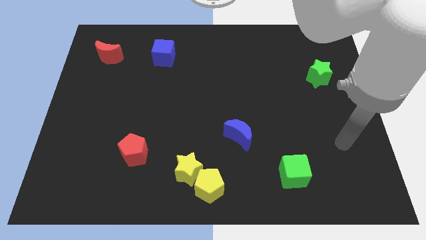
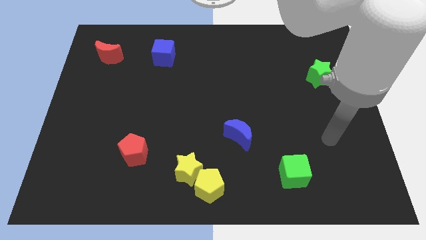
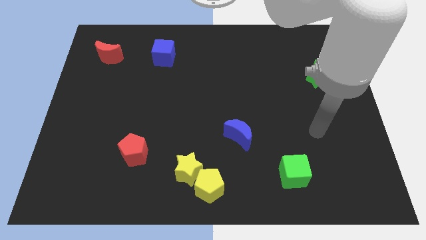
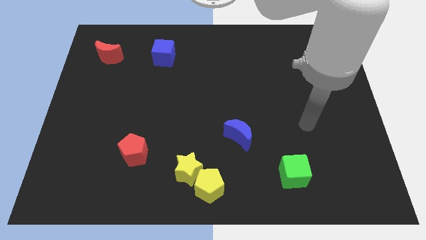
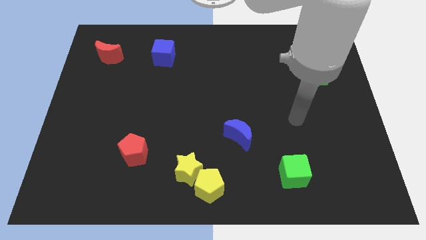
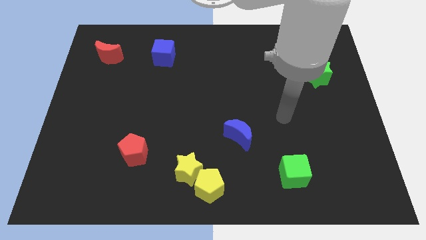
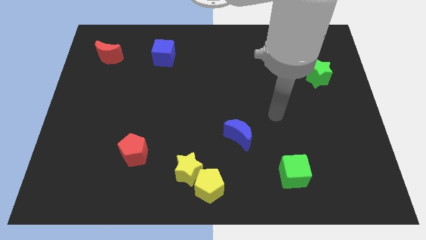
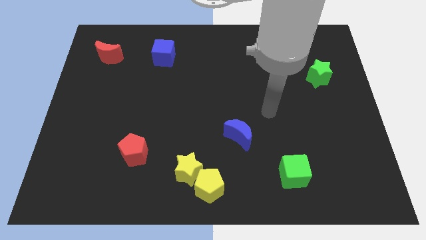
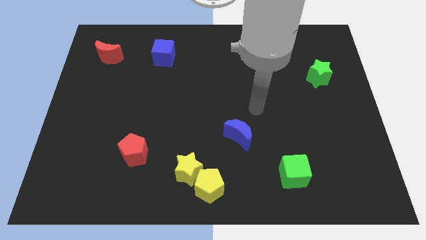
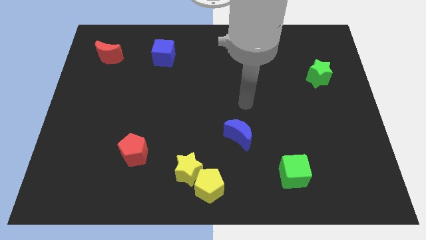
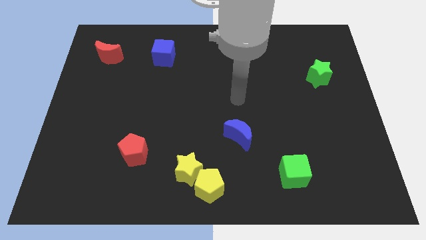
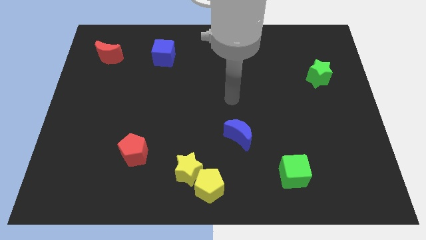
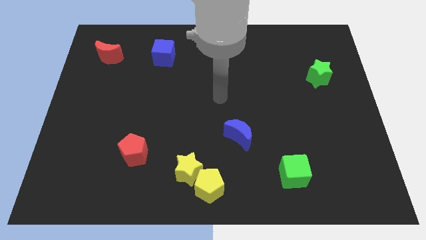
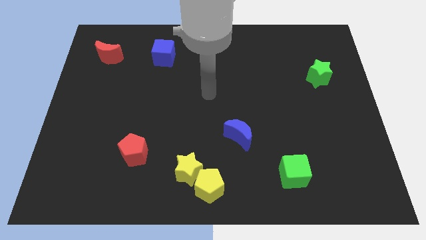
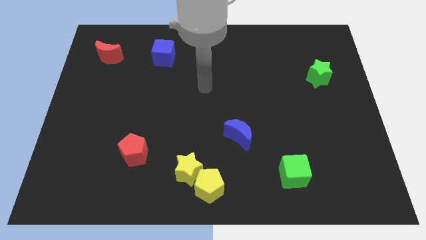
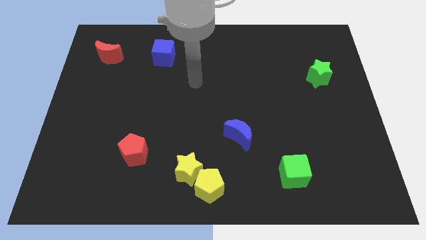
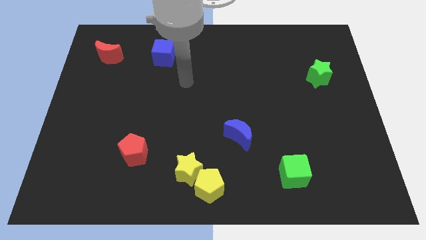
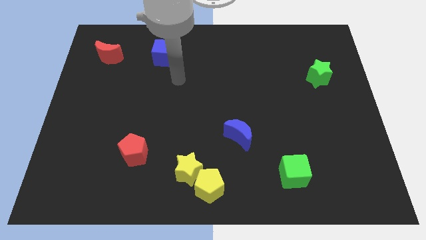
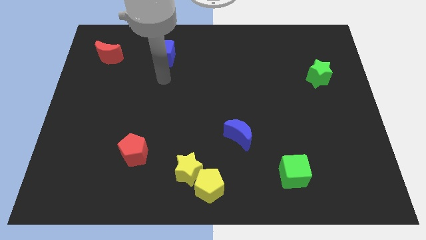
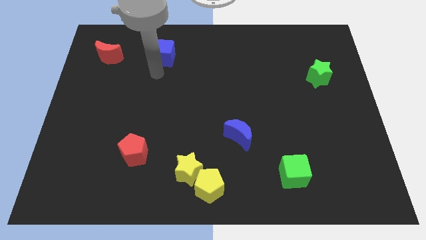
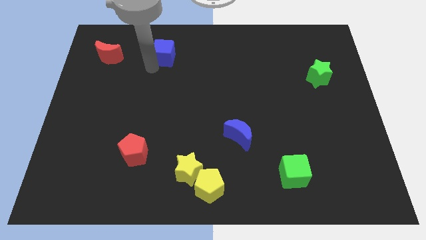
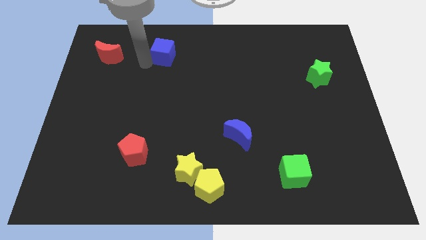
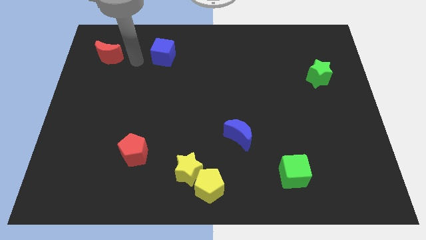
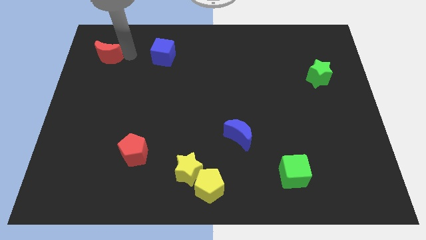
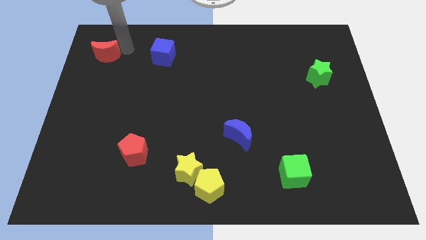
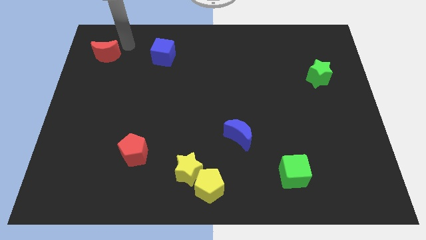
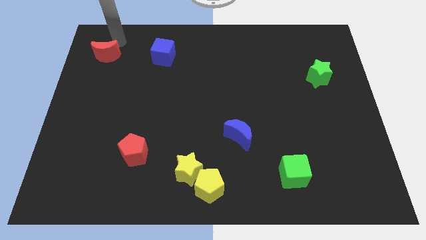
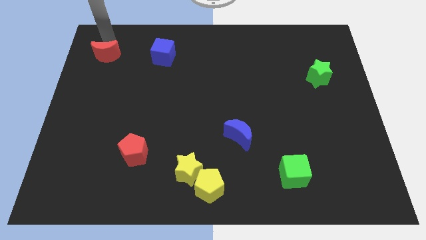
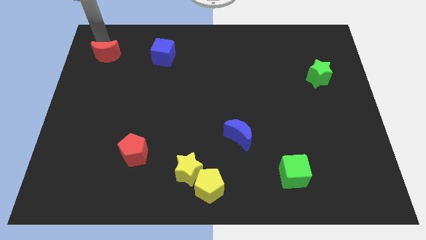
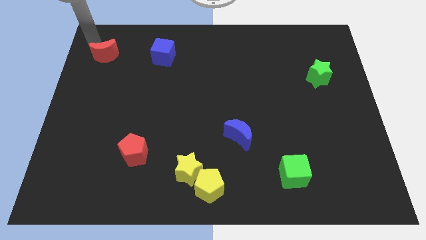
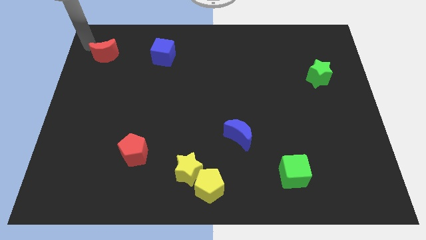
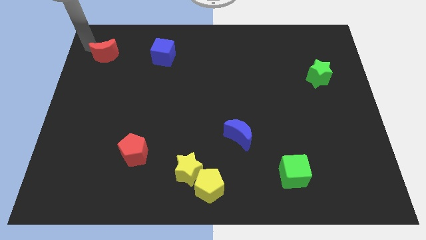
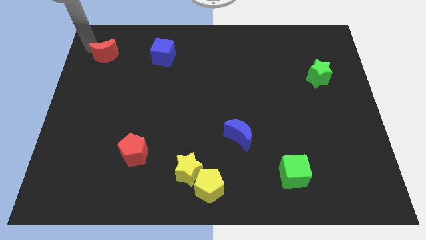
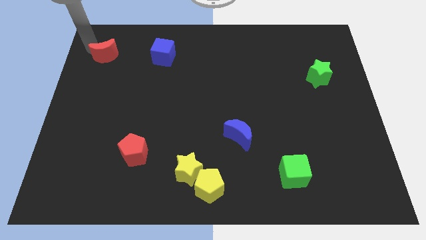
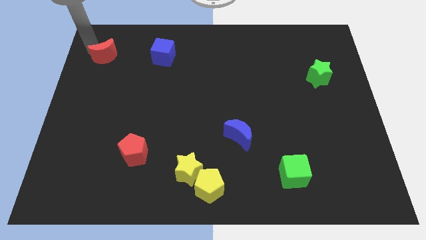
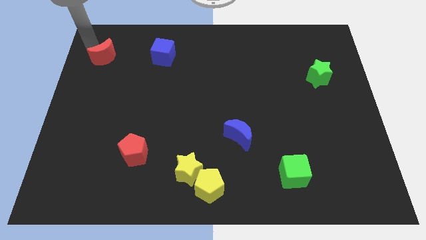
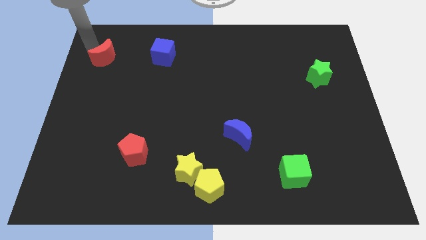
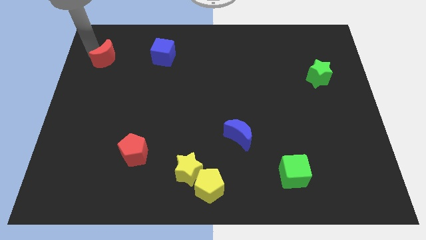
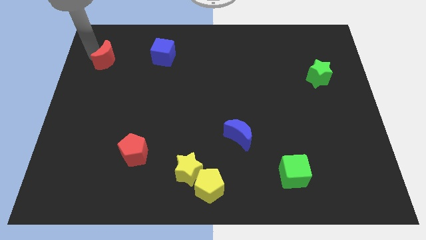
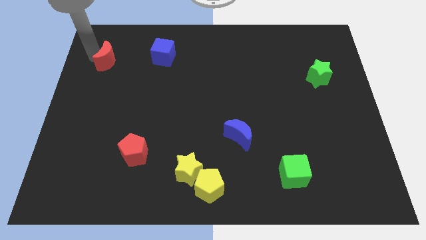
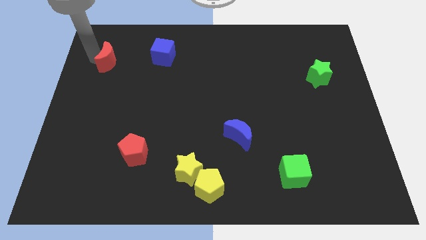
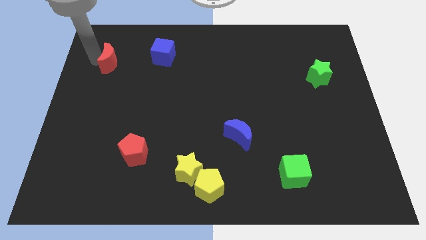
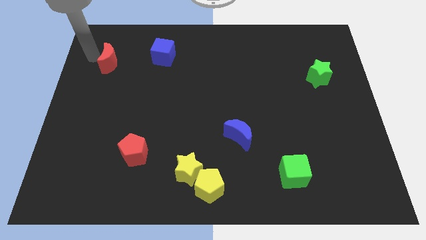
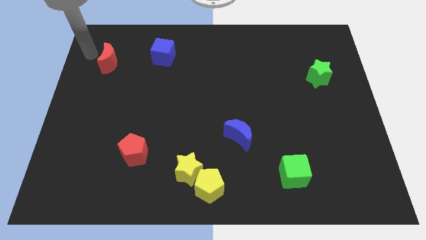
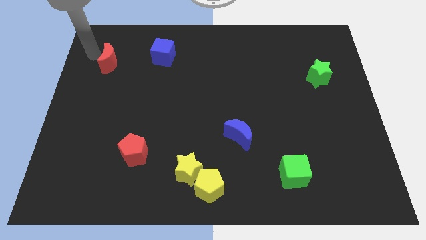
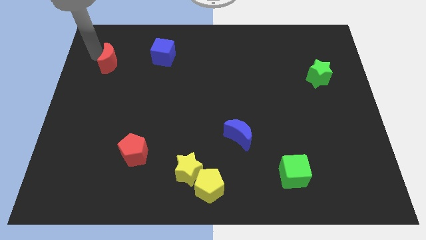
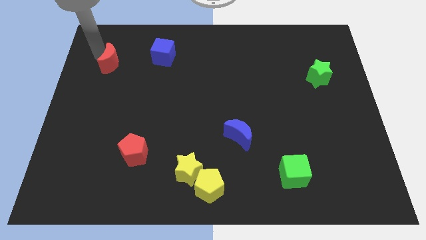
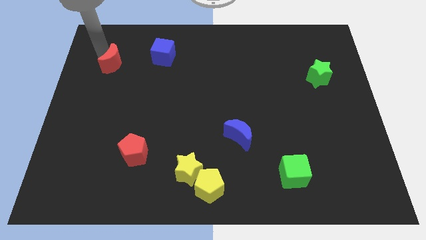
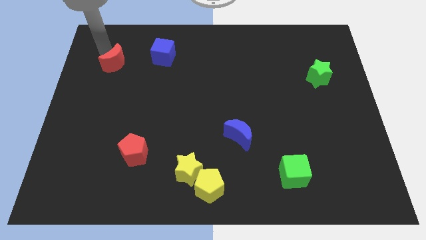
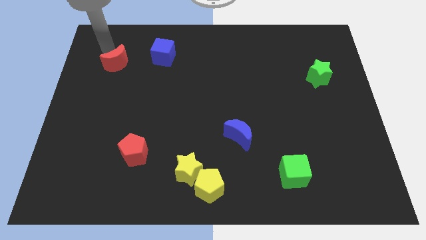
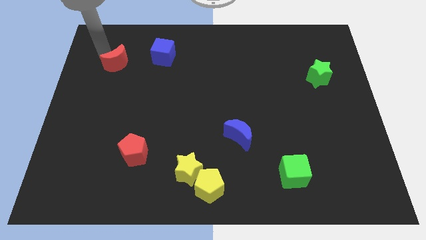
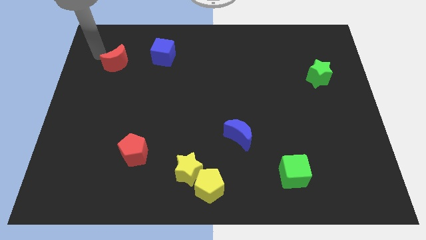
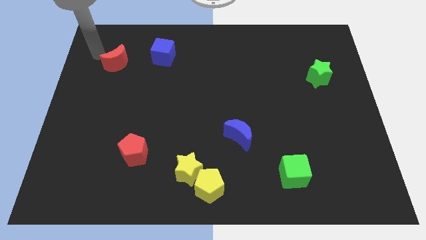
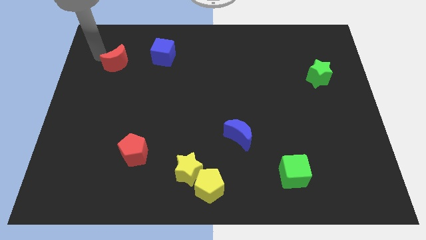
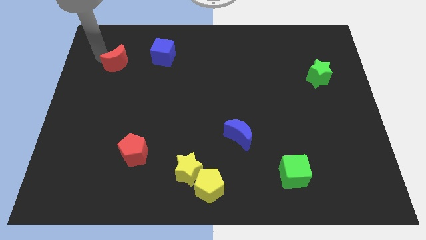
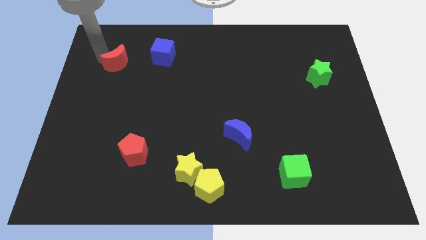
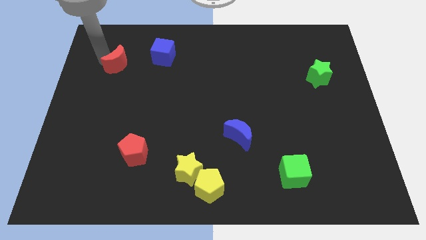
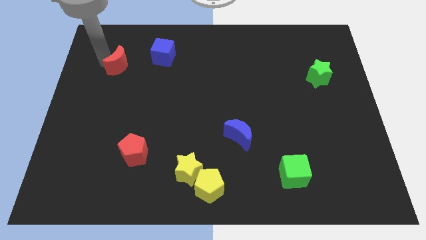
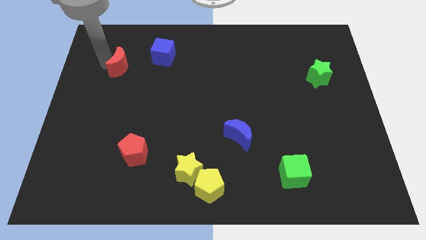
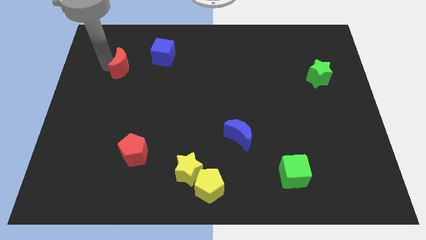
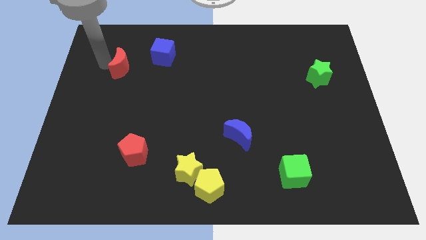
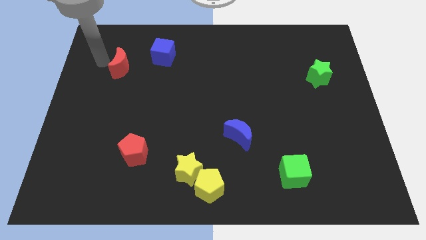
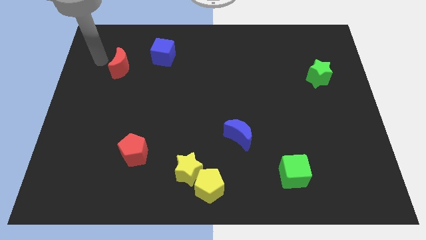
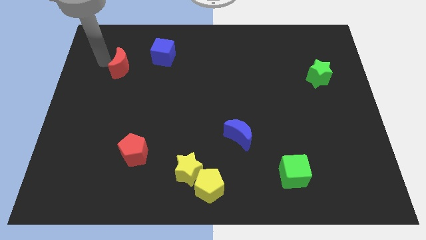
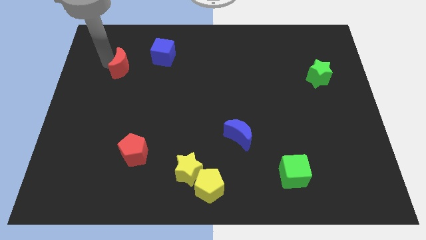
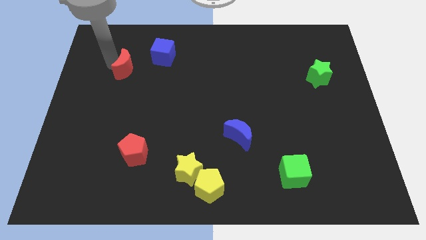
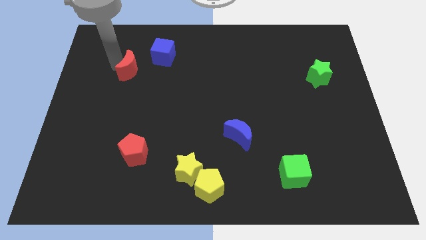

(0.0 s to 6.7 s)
slide the red moon slightly downwards and to the right diagonally

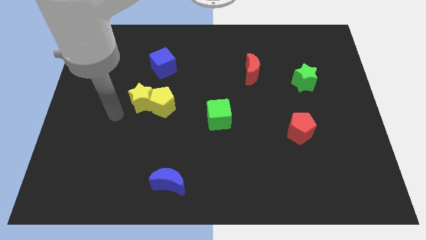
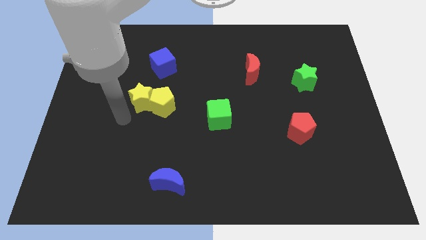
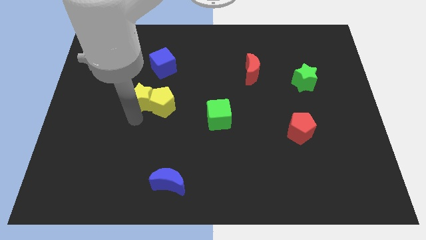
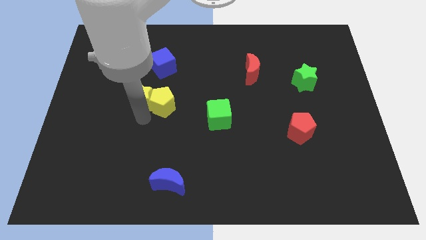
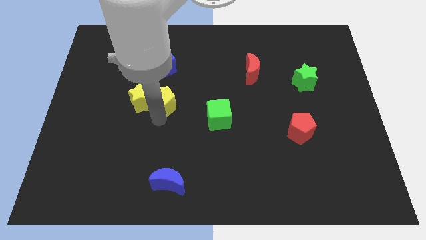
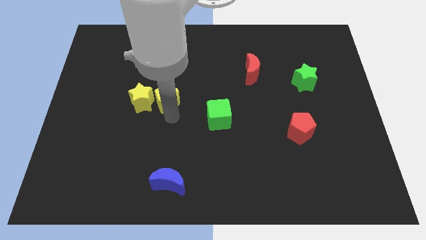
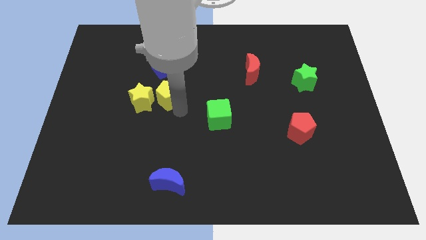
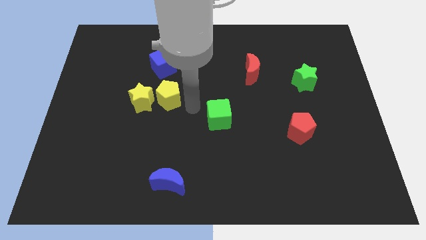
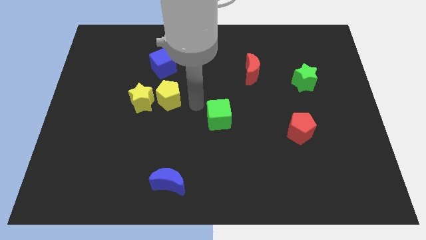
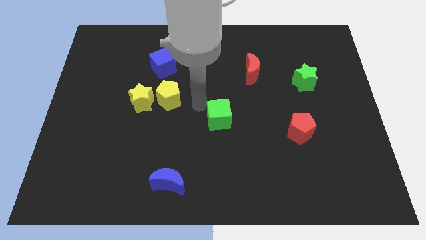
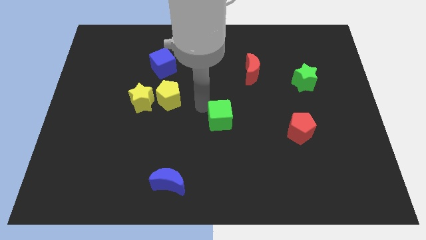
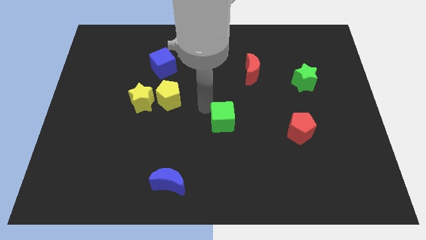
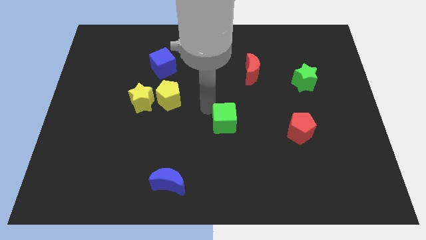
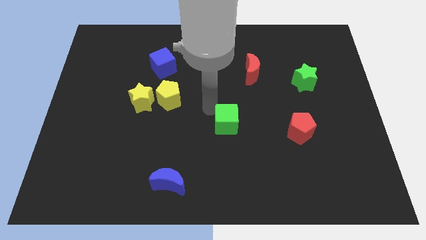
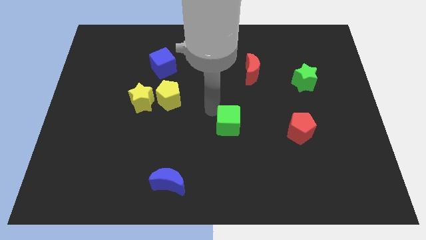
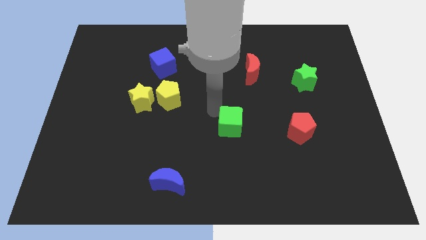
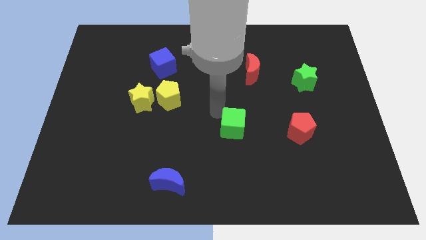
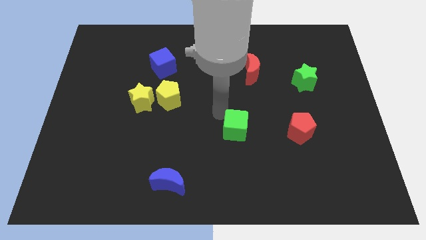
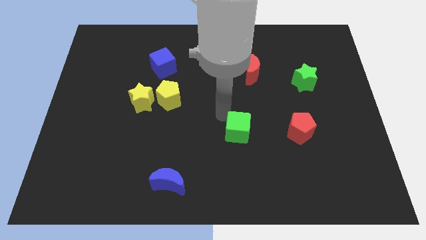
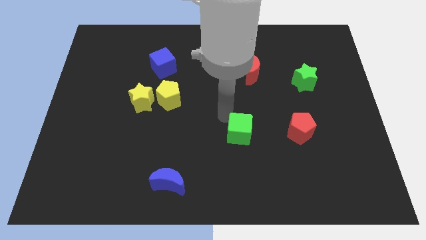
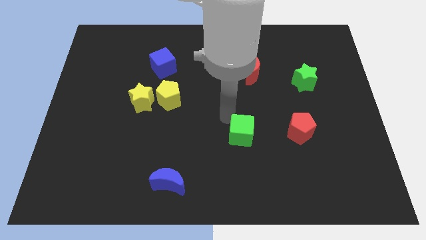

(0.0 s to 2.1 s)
slightly slide the green cube downwards and right
